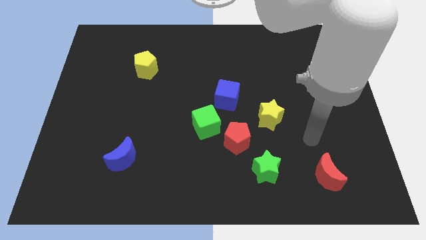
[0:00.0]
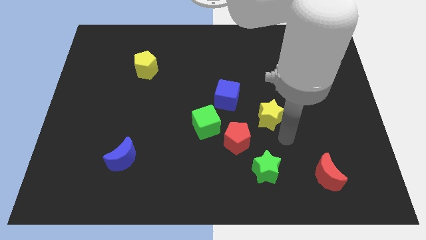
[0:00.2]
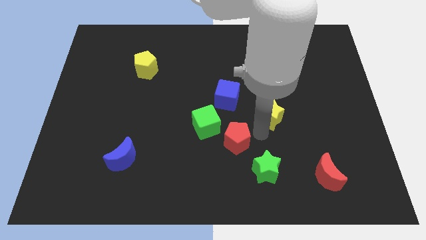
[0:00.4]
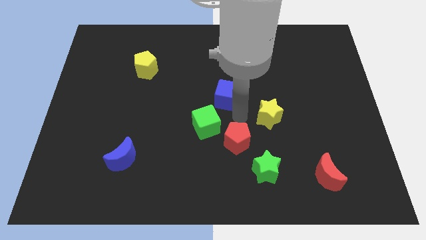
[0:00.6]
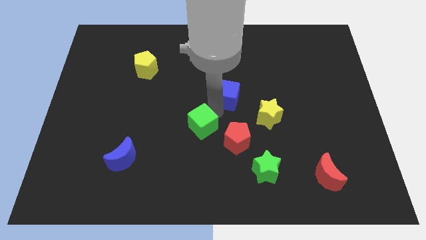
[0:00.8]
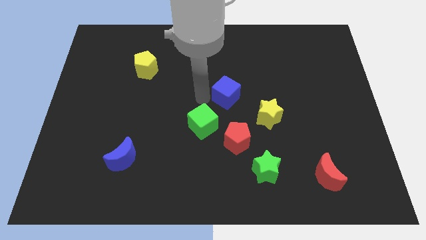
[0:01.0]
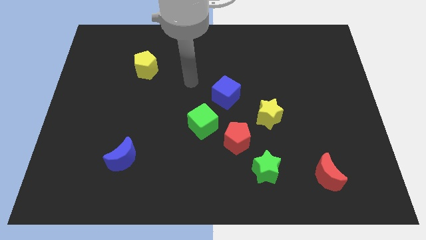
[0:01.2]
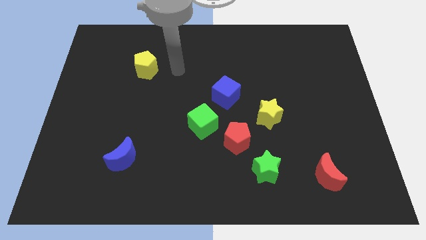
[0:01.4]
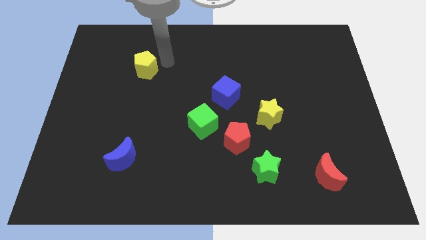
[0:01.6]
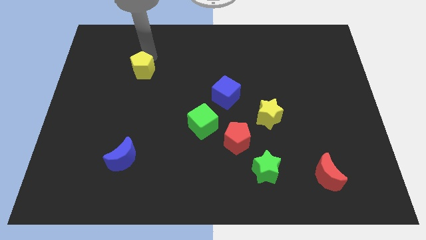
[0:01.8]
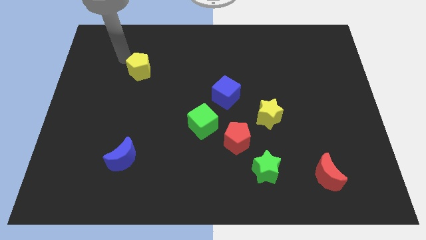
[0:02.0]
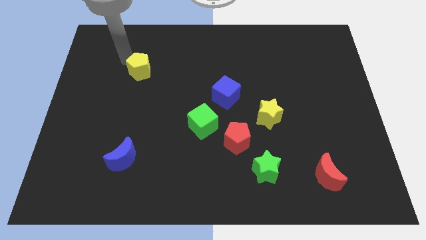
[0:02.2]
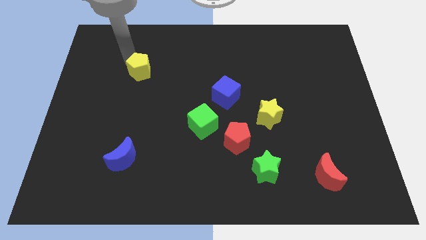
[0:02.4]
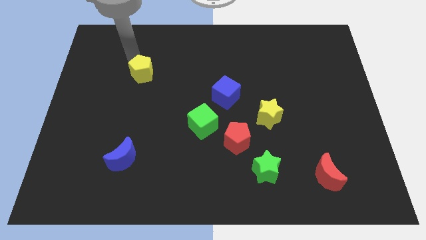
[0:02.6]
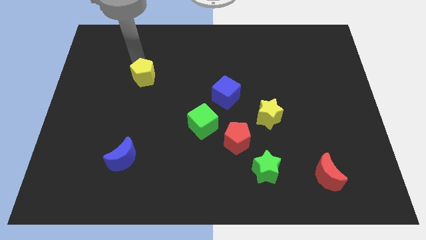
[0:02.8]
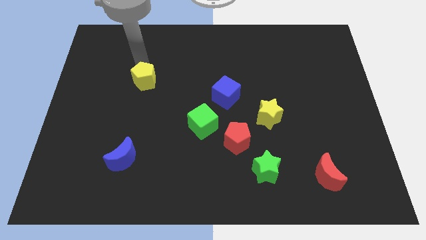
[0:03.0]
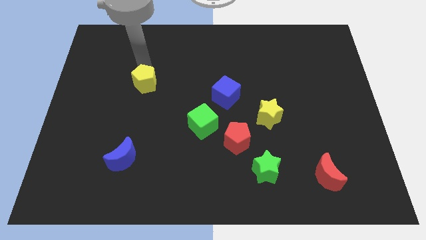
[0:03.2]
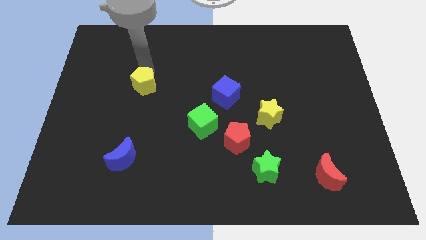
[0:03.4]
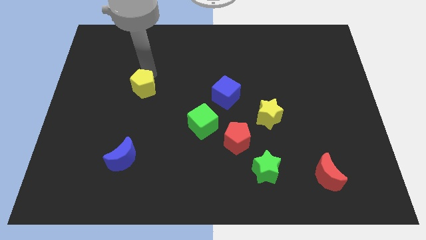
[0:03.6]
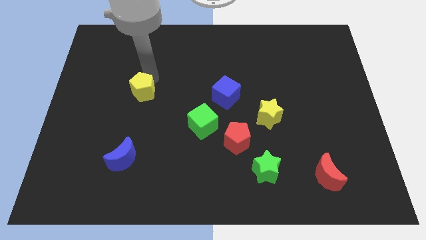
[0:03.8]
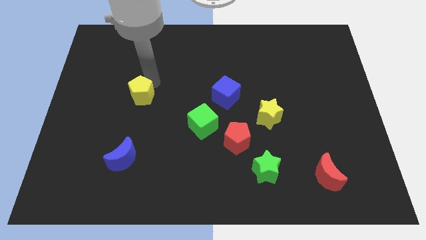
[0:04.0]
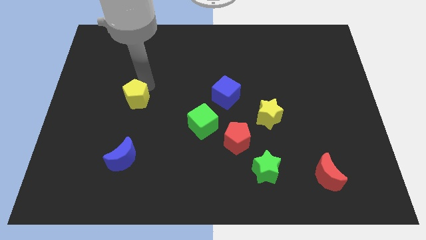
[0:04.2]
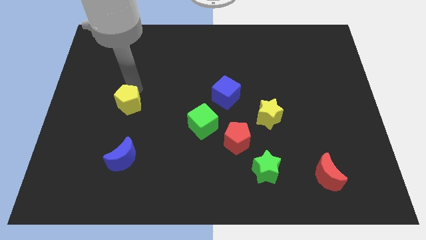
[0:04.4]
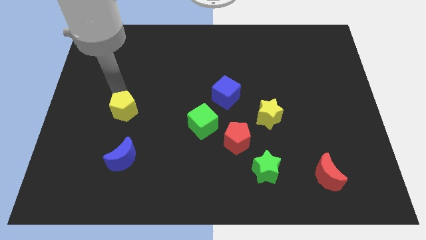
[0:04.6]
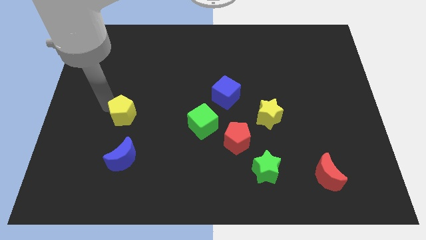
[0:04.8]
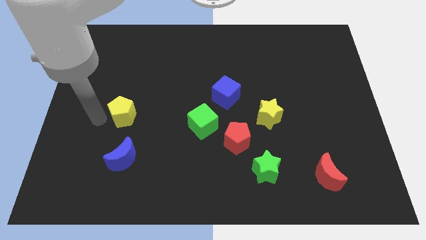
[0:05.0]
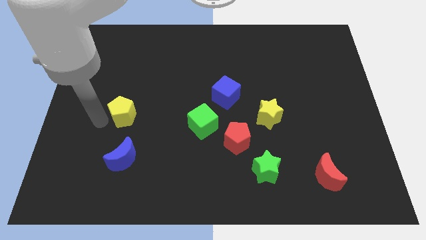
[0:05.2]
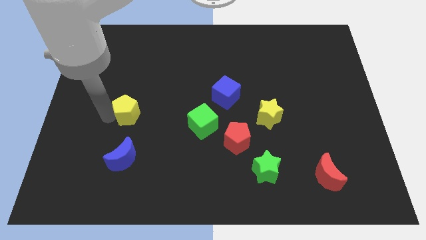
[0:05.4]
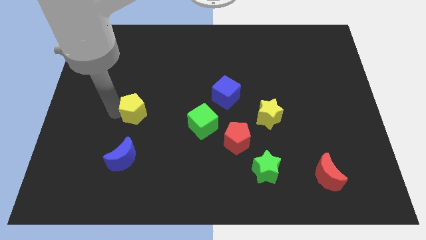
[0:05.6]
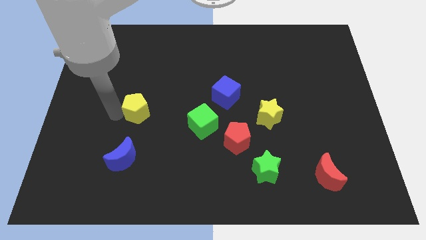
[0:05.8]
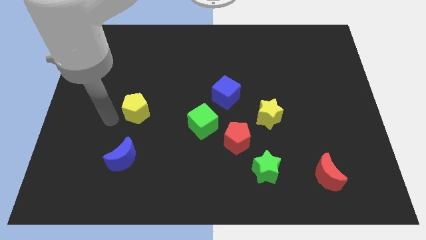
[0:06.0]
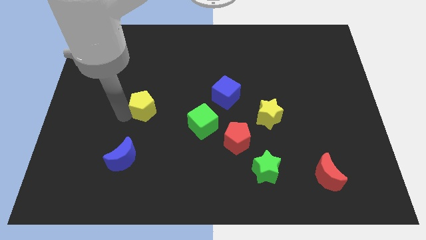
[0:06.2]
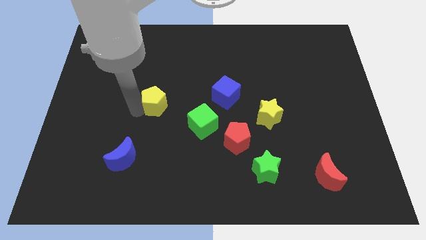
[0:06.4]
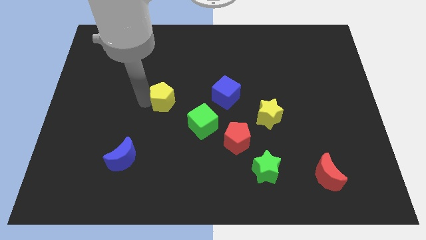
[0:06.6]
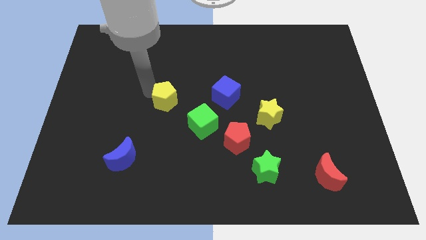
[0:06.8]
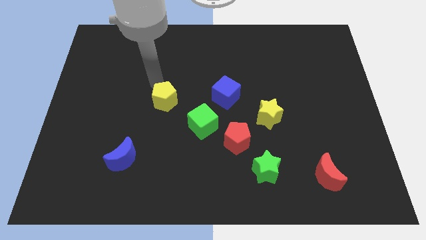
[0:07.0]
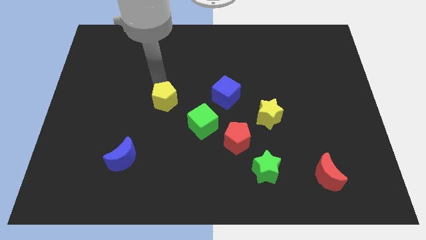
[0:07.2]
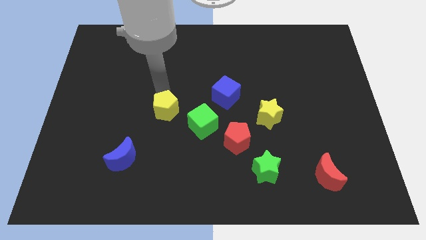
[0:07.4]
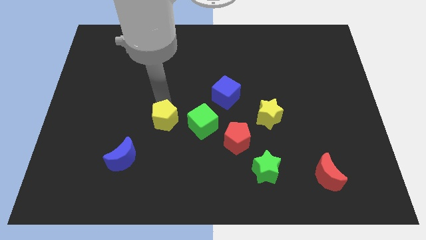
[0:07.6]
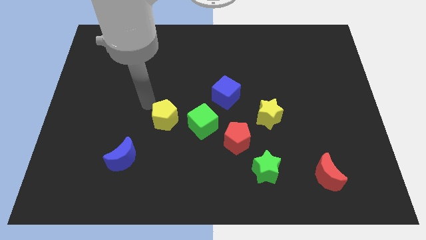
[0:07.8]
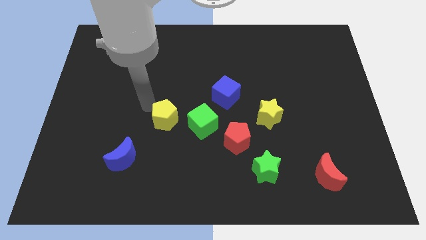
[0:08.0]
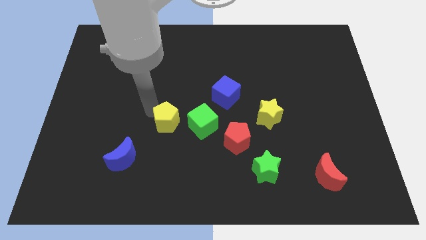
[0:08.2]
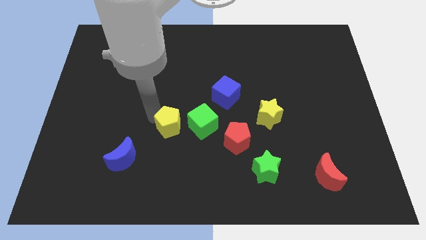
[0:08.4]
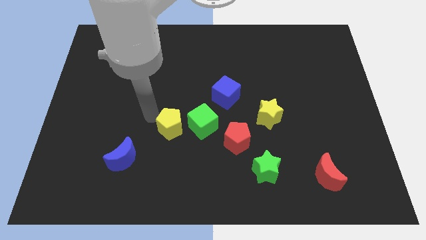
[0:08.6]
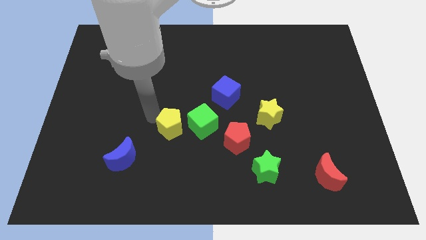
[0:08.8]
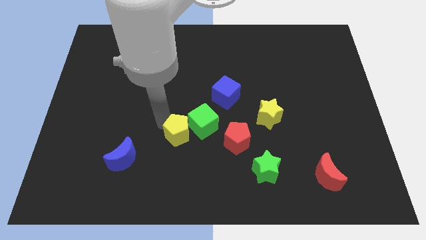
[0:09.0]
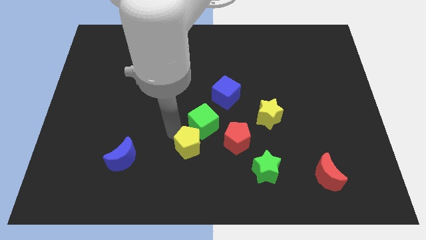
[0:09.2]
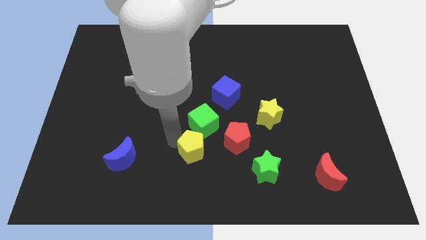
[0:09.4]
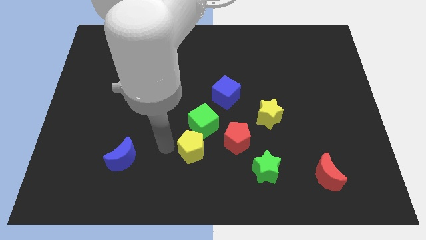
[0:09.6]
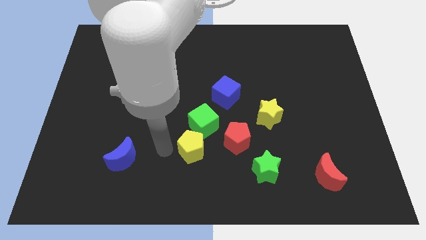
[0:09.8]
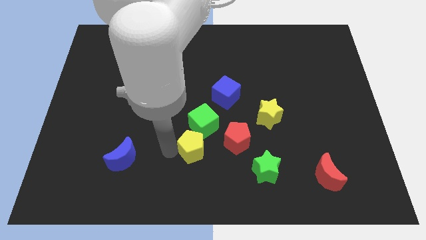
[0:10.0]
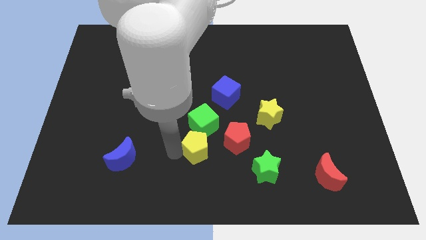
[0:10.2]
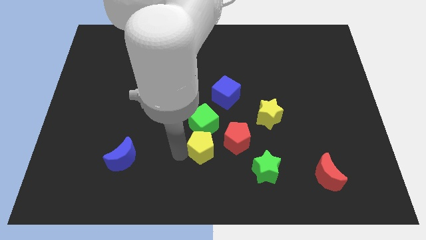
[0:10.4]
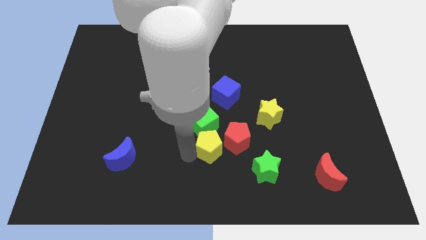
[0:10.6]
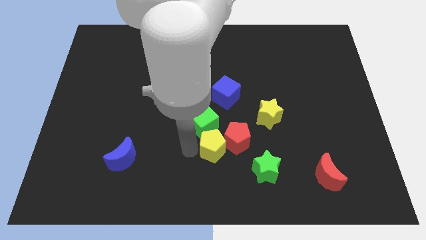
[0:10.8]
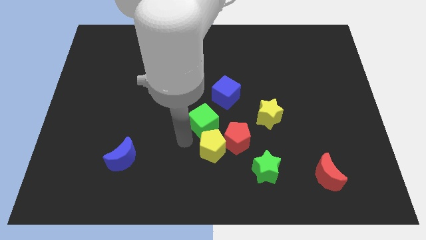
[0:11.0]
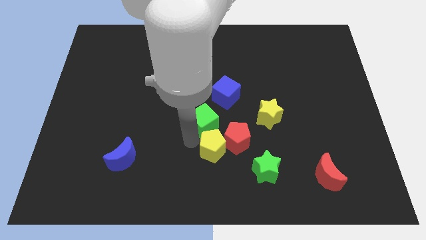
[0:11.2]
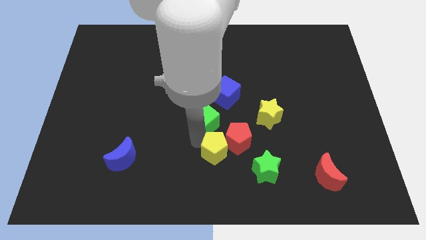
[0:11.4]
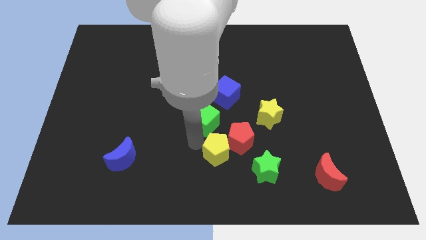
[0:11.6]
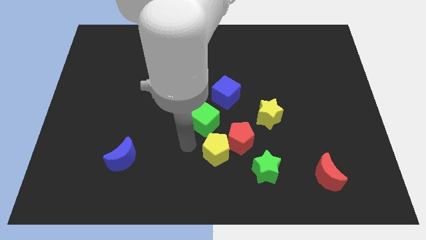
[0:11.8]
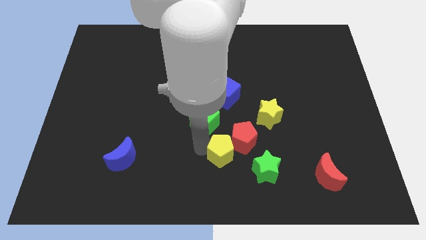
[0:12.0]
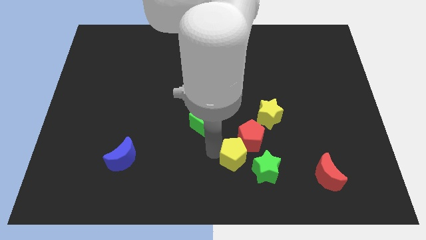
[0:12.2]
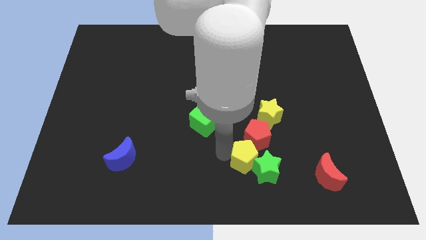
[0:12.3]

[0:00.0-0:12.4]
slide the yellow pentagon to the green star

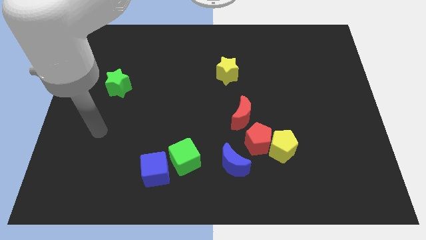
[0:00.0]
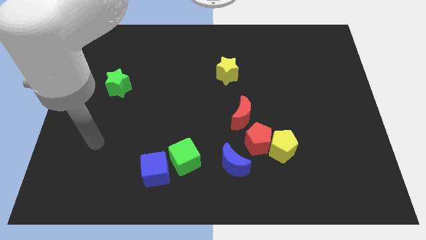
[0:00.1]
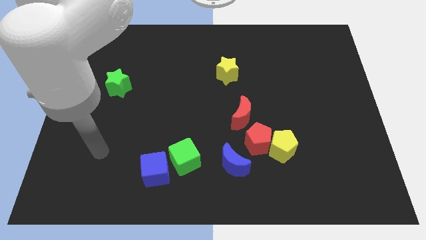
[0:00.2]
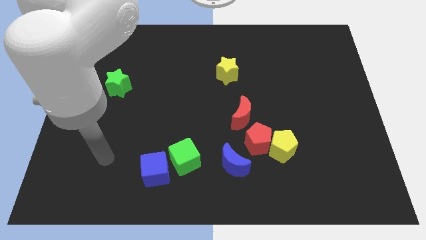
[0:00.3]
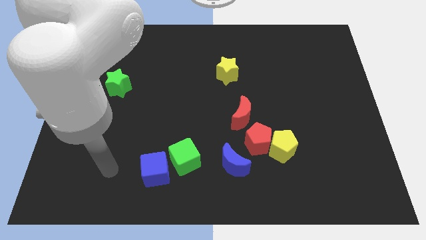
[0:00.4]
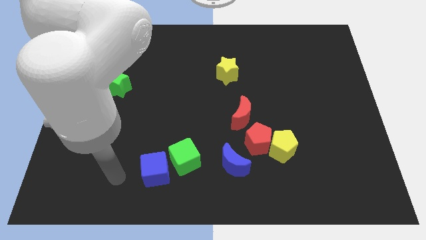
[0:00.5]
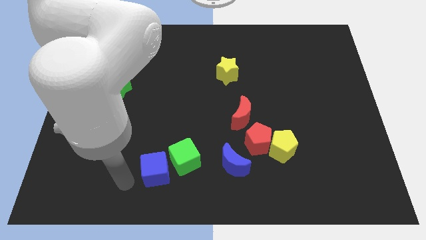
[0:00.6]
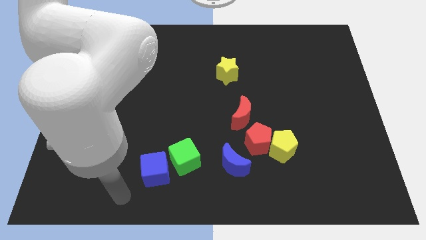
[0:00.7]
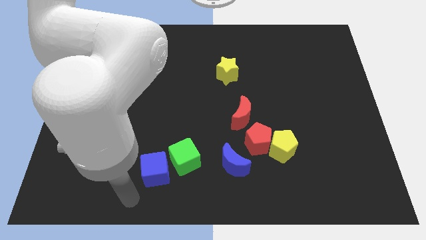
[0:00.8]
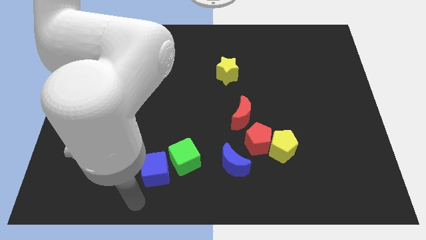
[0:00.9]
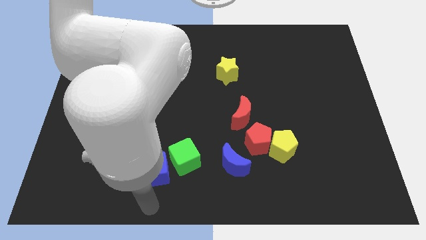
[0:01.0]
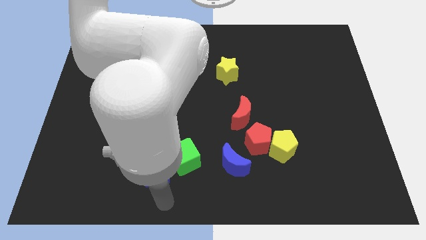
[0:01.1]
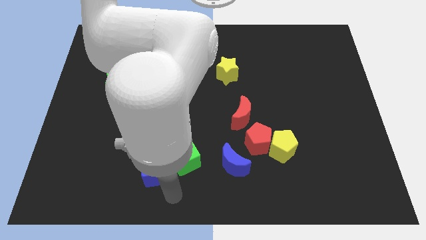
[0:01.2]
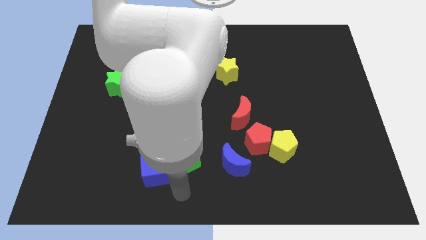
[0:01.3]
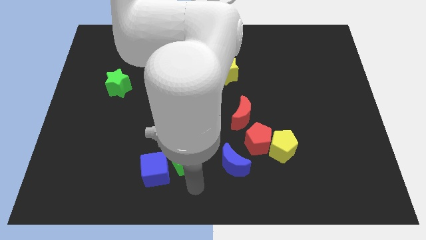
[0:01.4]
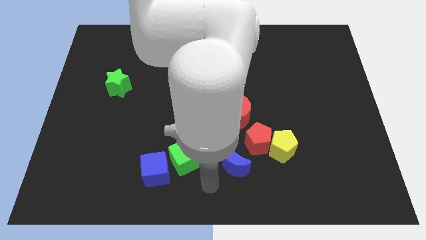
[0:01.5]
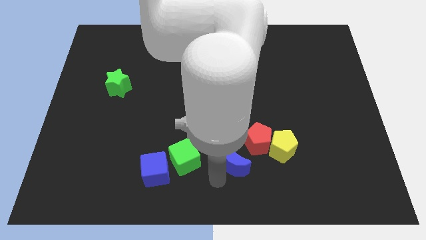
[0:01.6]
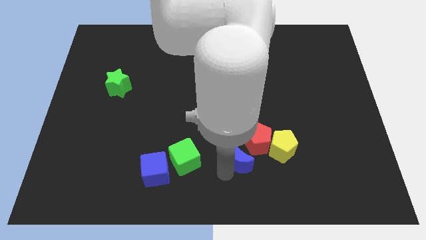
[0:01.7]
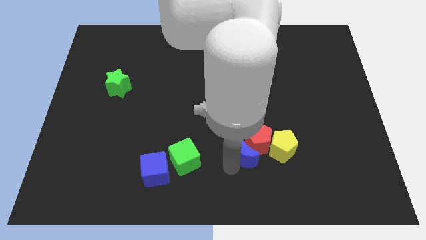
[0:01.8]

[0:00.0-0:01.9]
slide the blue moon next to the red pentagon
